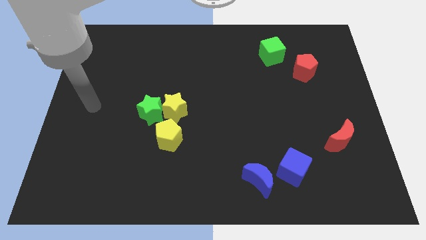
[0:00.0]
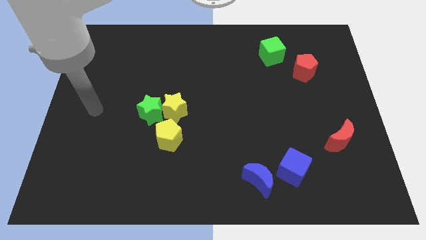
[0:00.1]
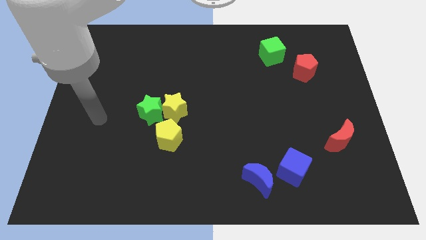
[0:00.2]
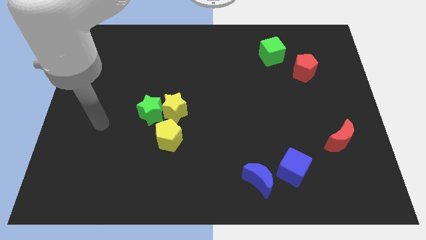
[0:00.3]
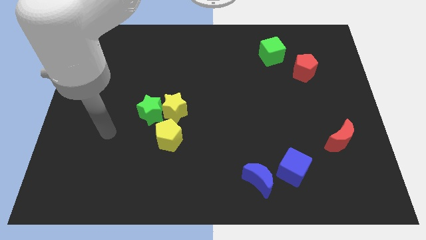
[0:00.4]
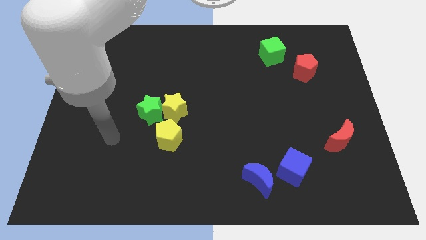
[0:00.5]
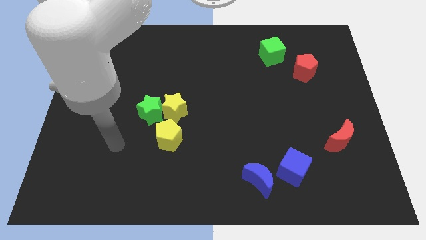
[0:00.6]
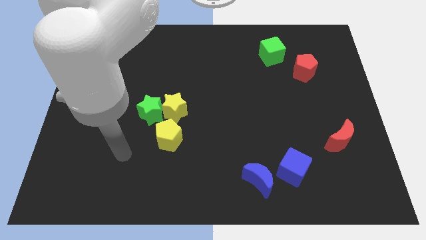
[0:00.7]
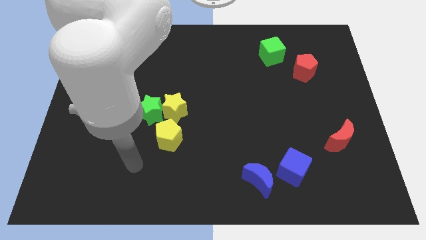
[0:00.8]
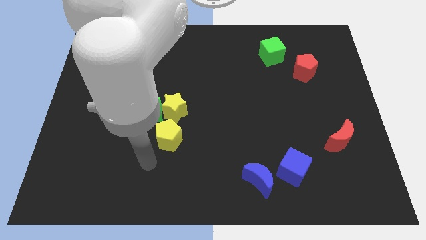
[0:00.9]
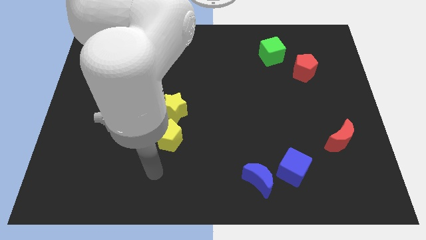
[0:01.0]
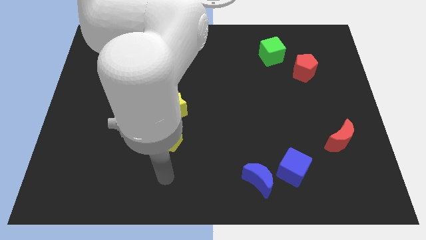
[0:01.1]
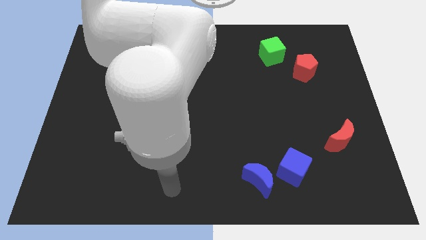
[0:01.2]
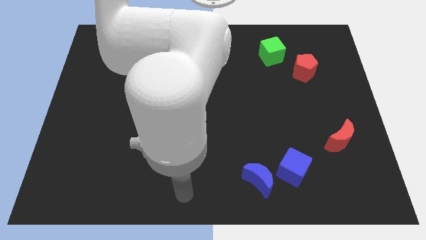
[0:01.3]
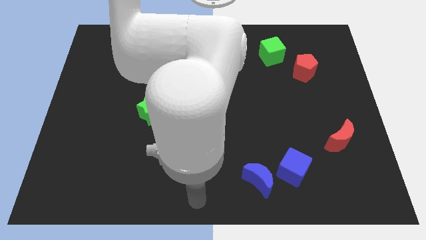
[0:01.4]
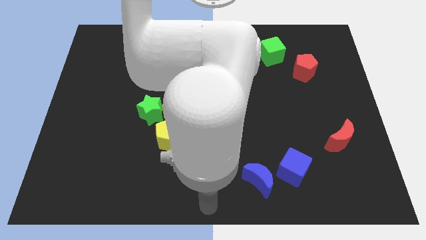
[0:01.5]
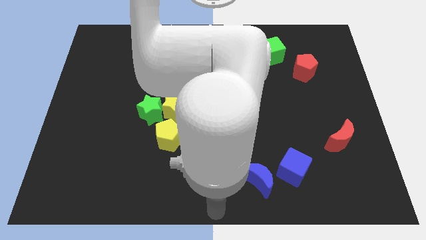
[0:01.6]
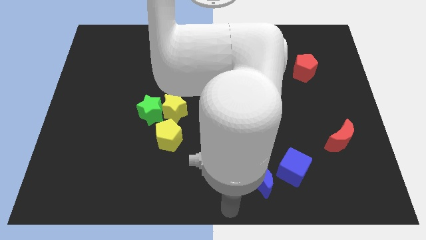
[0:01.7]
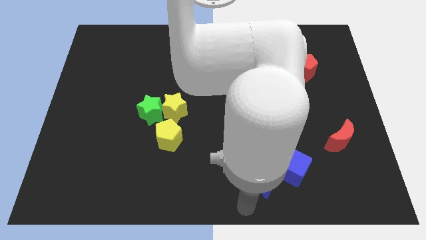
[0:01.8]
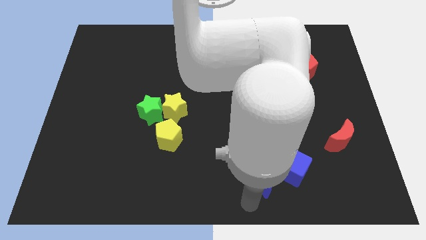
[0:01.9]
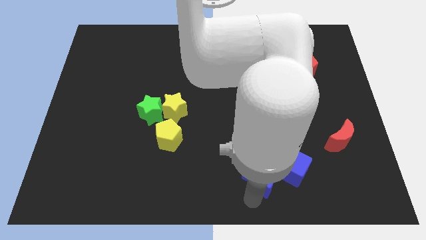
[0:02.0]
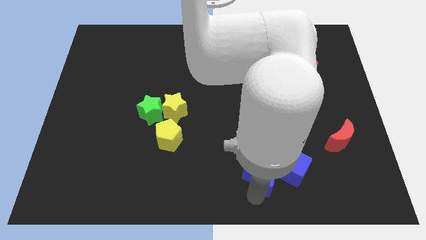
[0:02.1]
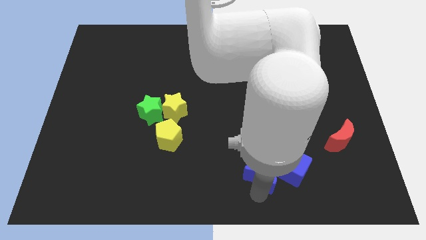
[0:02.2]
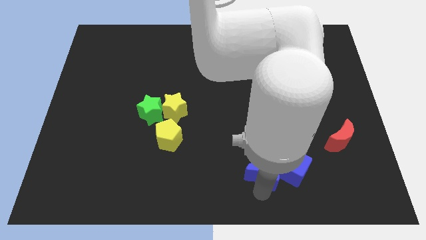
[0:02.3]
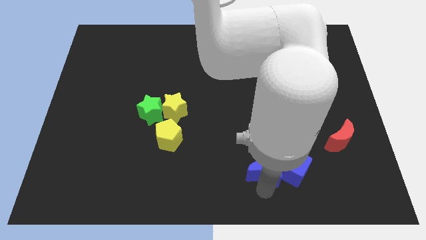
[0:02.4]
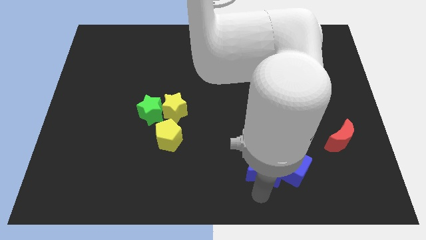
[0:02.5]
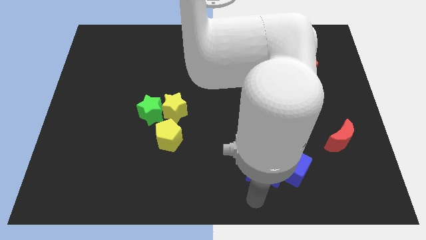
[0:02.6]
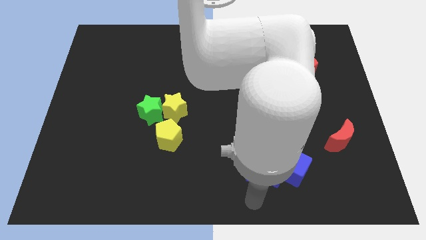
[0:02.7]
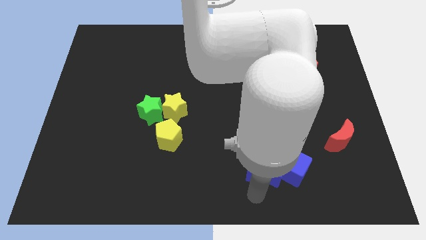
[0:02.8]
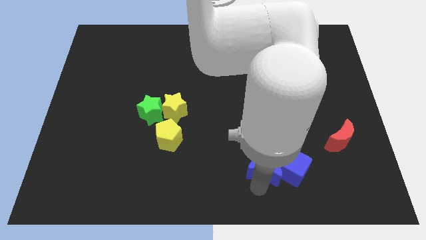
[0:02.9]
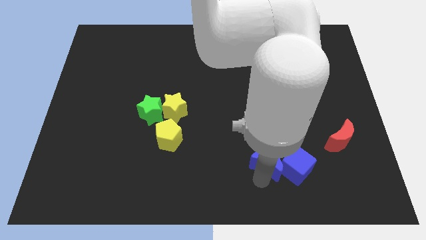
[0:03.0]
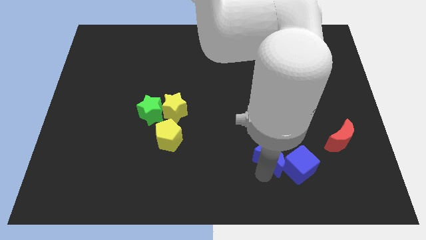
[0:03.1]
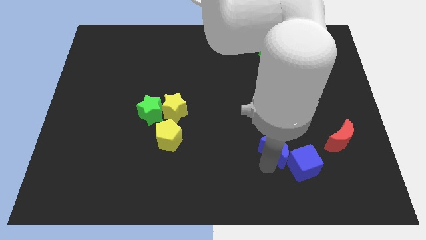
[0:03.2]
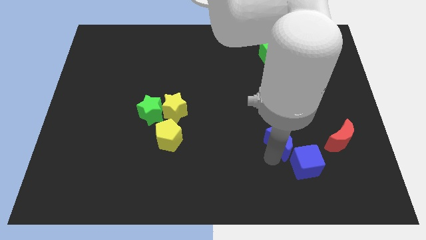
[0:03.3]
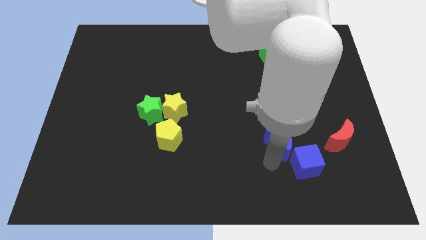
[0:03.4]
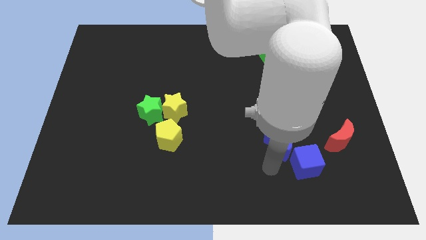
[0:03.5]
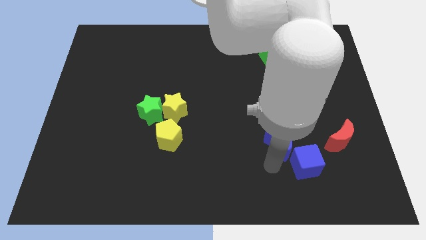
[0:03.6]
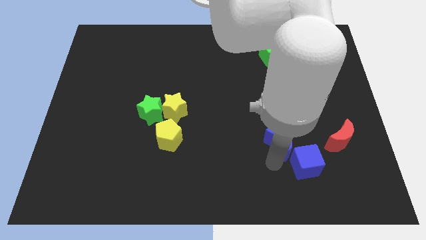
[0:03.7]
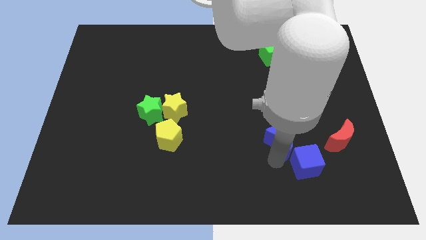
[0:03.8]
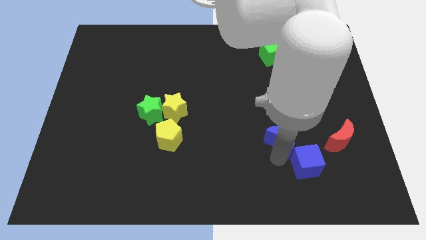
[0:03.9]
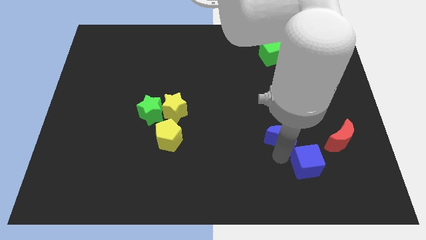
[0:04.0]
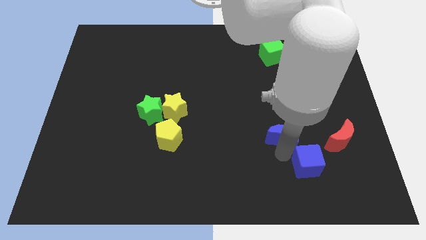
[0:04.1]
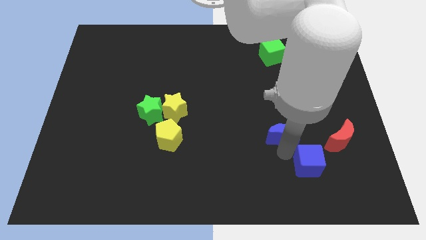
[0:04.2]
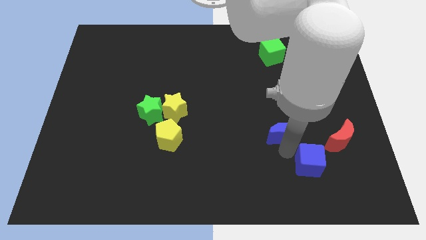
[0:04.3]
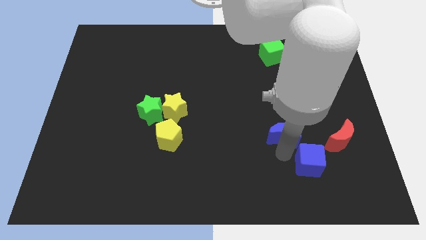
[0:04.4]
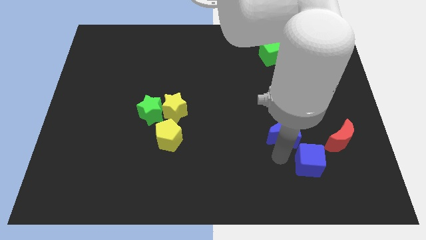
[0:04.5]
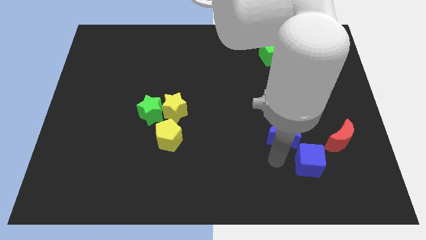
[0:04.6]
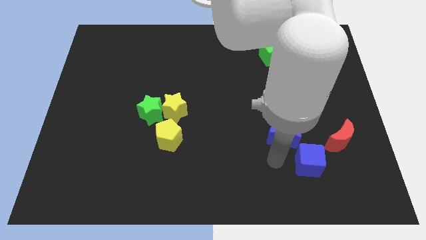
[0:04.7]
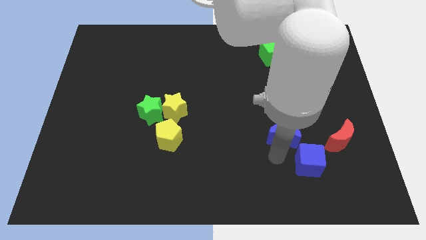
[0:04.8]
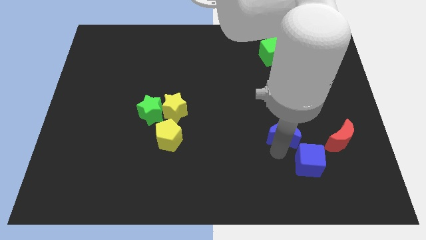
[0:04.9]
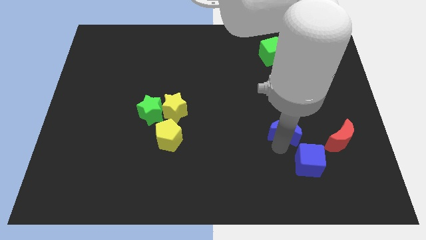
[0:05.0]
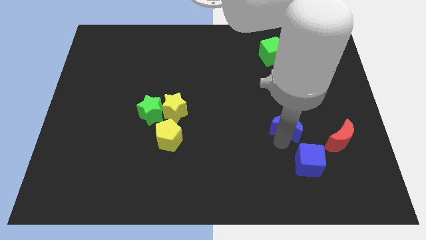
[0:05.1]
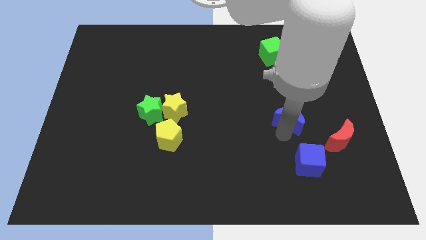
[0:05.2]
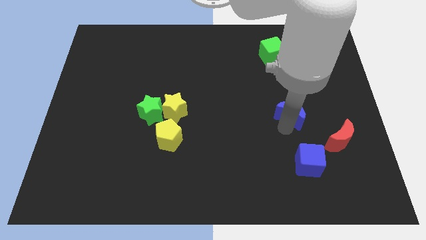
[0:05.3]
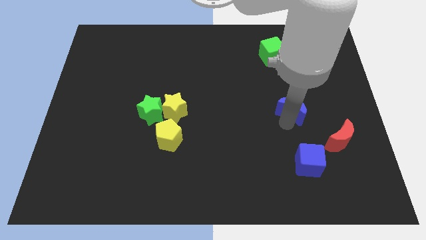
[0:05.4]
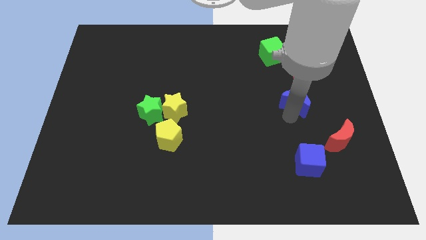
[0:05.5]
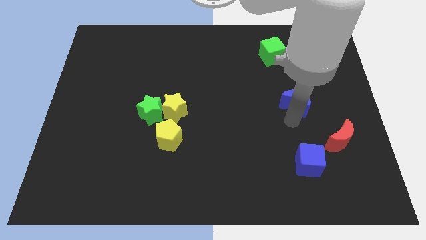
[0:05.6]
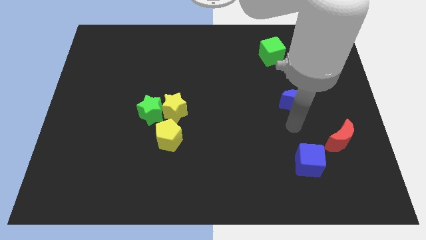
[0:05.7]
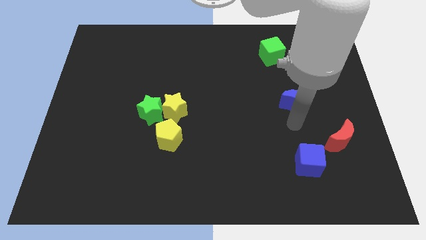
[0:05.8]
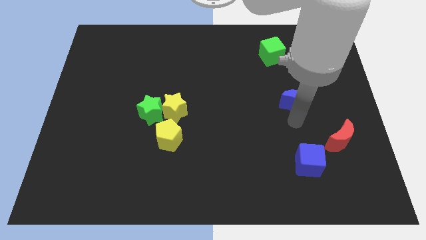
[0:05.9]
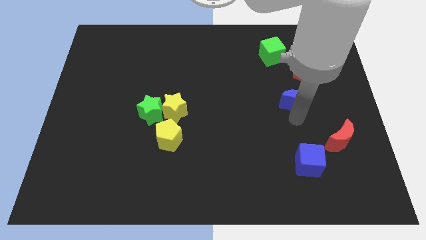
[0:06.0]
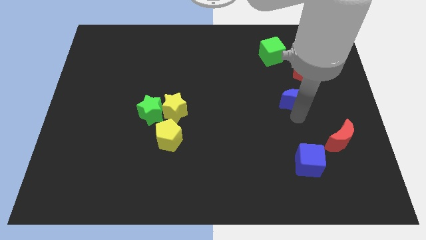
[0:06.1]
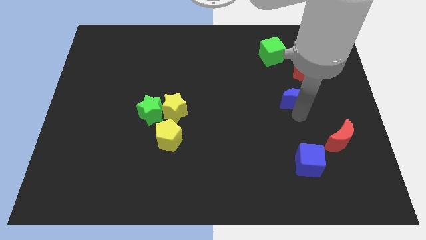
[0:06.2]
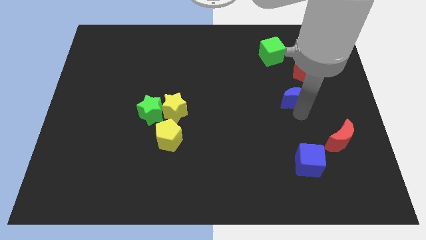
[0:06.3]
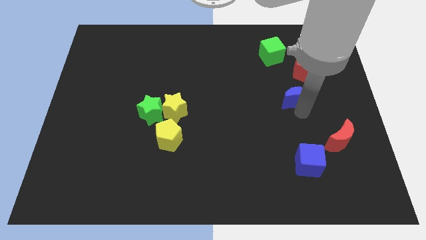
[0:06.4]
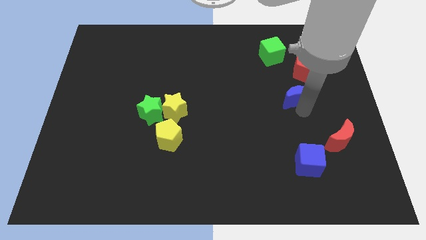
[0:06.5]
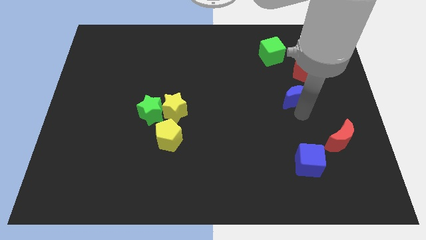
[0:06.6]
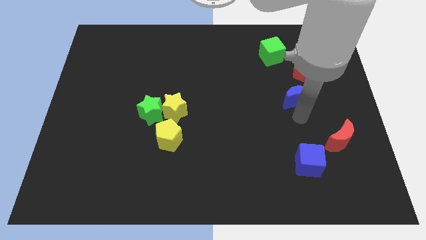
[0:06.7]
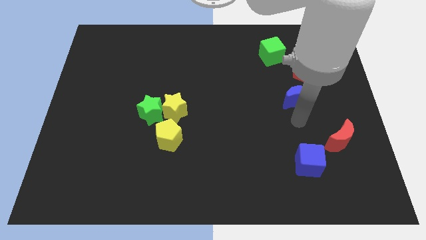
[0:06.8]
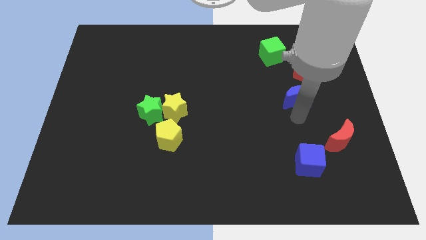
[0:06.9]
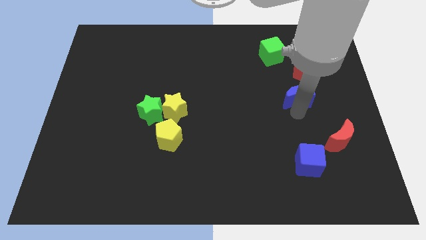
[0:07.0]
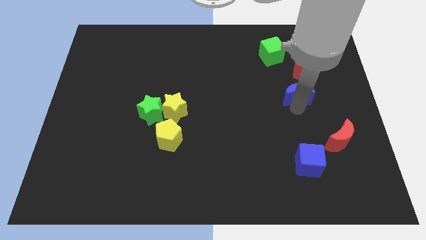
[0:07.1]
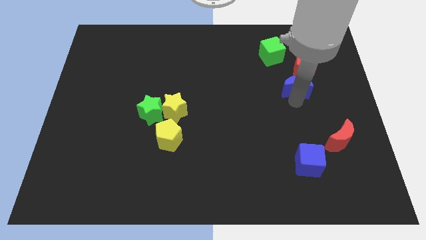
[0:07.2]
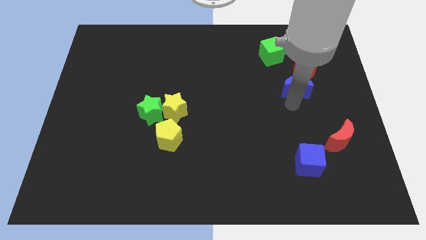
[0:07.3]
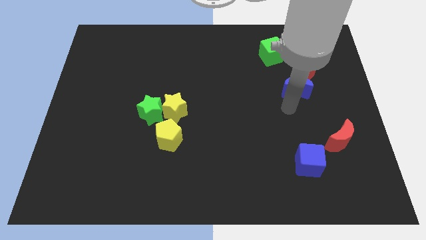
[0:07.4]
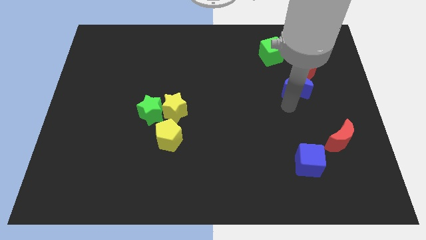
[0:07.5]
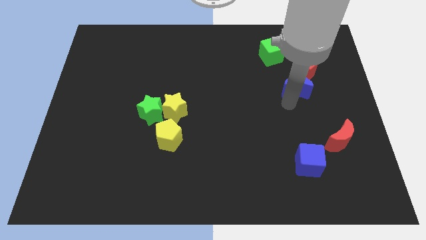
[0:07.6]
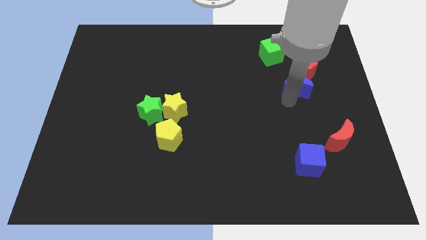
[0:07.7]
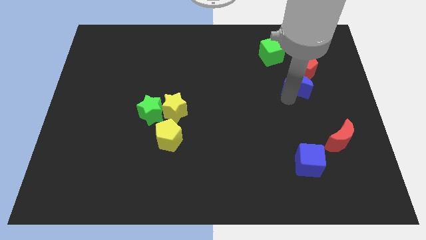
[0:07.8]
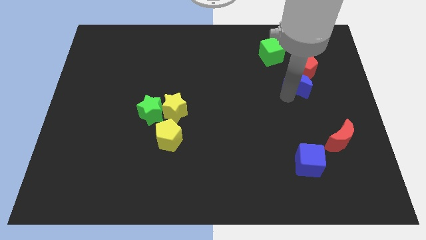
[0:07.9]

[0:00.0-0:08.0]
slide the blue moon next to the red pentagon
